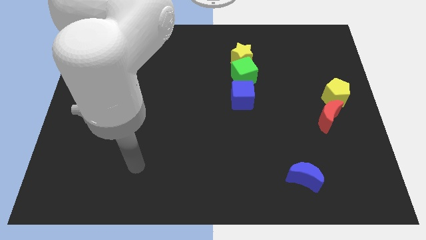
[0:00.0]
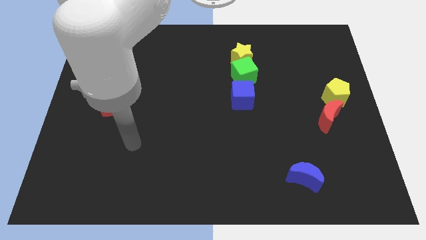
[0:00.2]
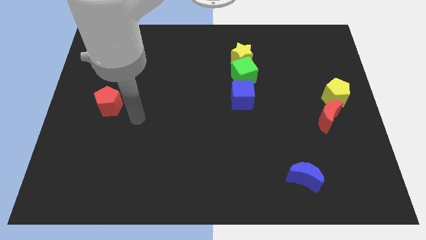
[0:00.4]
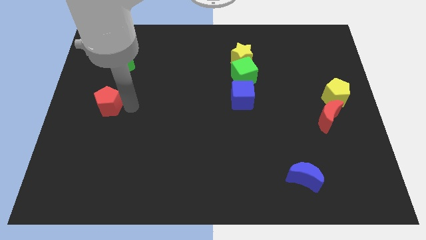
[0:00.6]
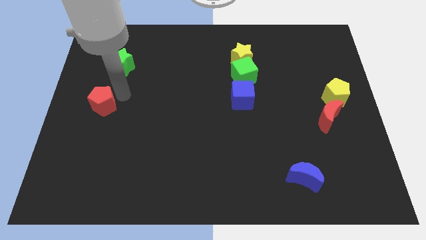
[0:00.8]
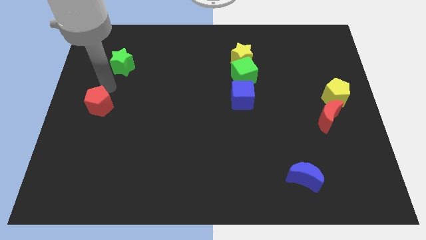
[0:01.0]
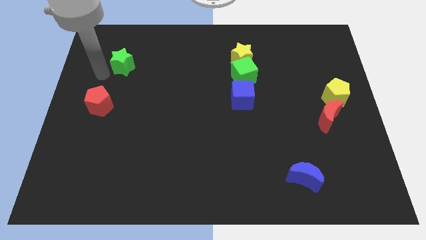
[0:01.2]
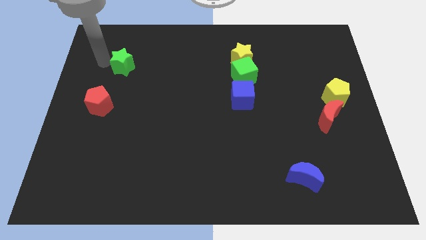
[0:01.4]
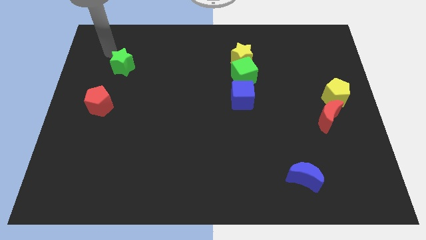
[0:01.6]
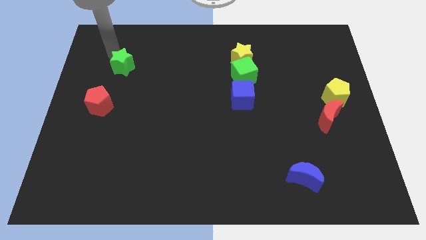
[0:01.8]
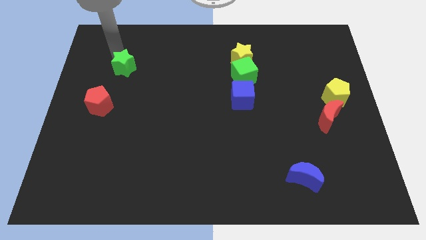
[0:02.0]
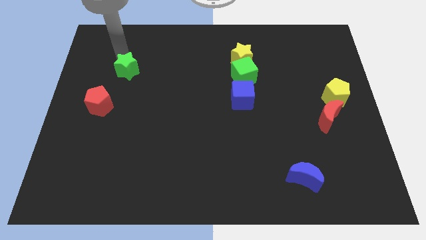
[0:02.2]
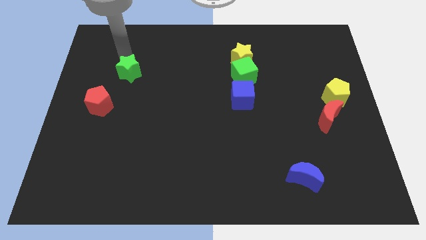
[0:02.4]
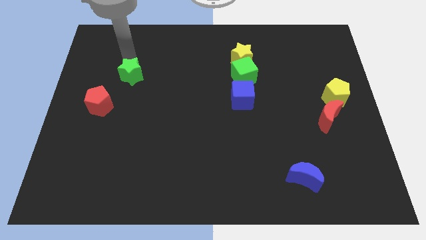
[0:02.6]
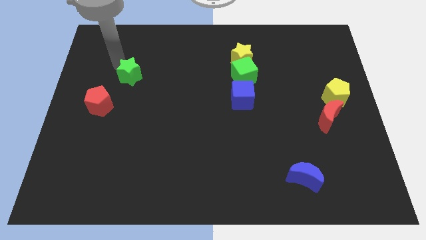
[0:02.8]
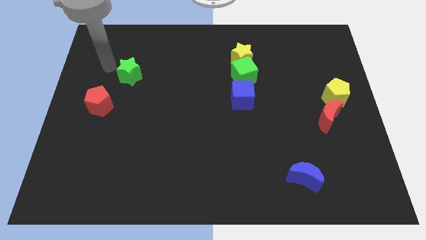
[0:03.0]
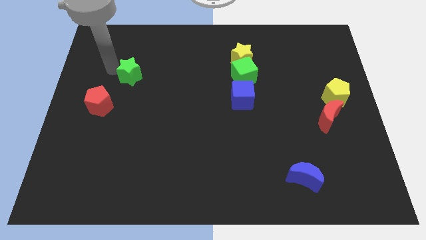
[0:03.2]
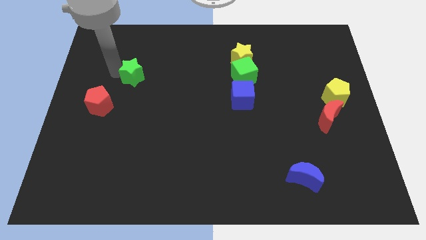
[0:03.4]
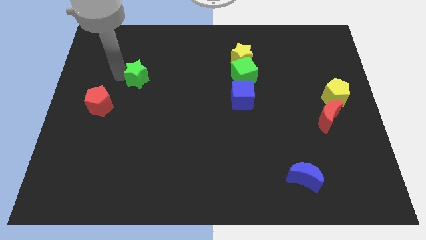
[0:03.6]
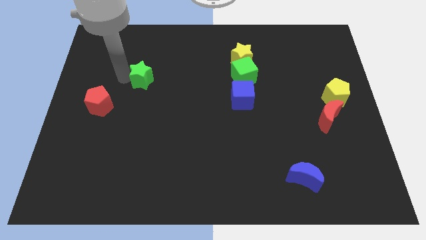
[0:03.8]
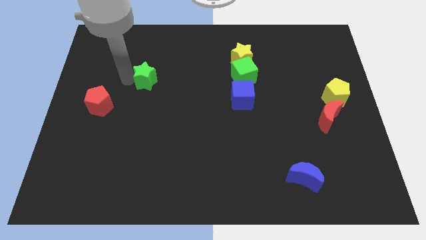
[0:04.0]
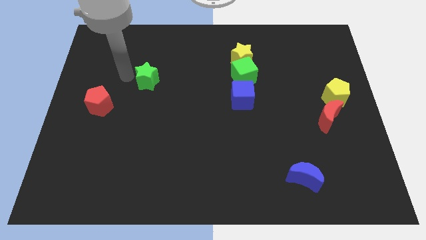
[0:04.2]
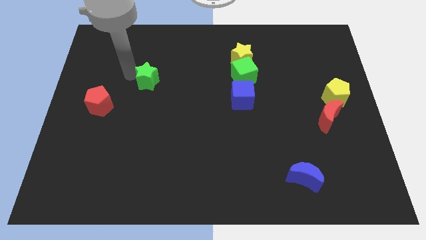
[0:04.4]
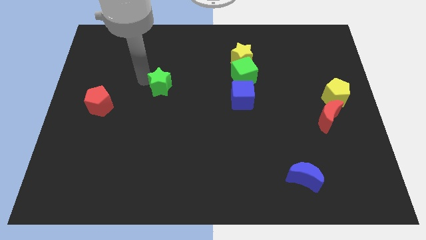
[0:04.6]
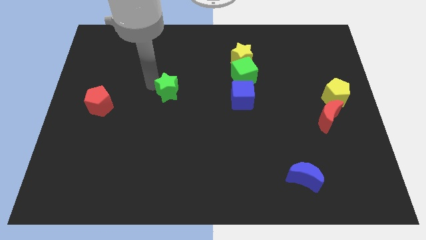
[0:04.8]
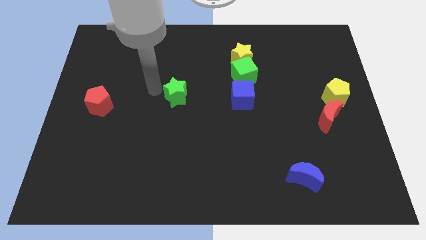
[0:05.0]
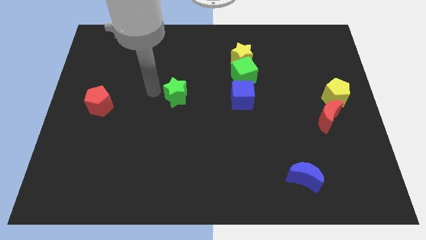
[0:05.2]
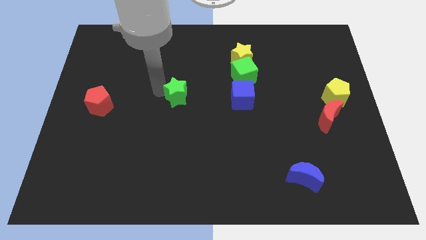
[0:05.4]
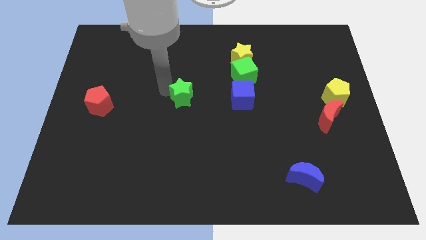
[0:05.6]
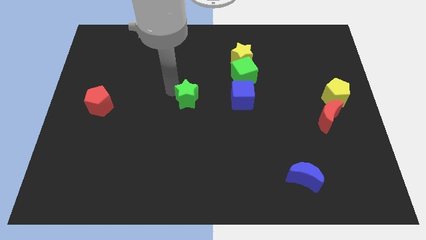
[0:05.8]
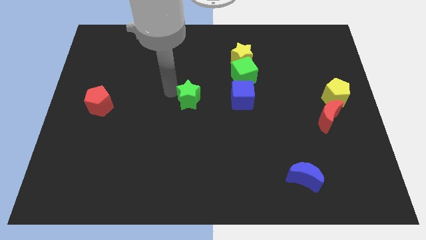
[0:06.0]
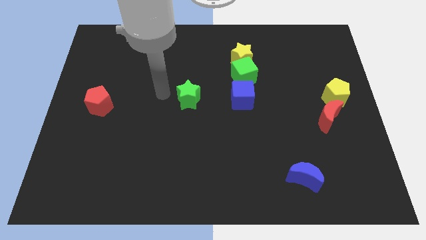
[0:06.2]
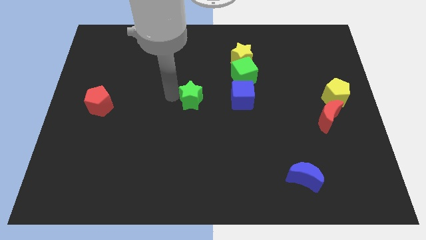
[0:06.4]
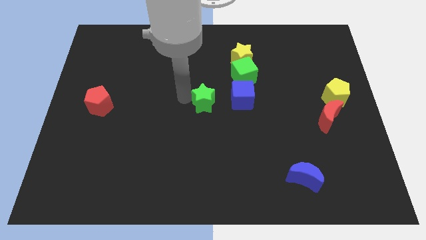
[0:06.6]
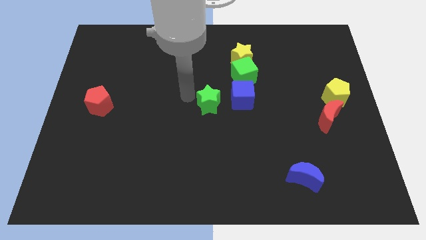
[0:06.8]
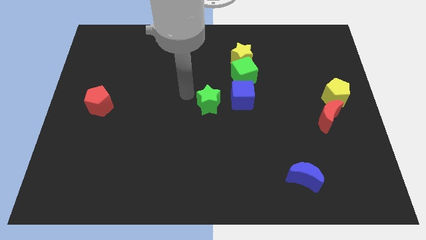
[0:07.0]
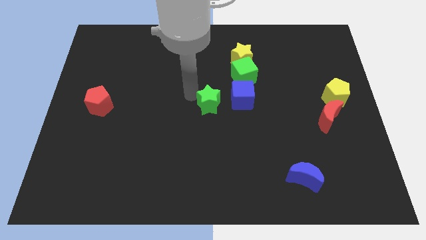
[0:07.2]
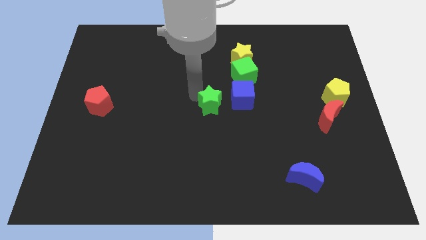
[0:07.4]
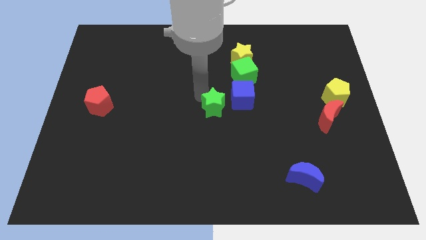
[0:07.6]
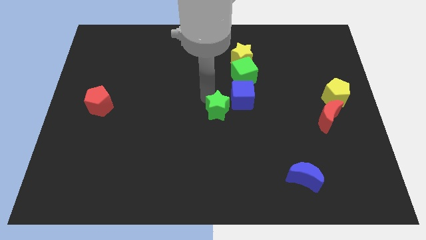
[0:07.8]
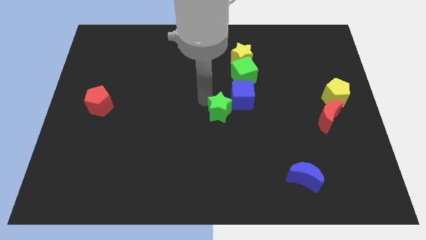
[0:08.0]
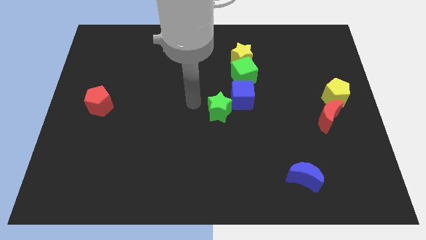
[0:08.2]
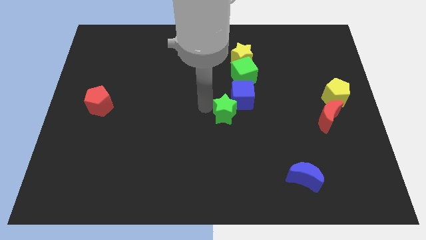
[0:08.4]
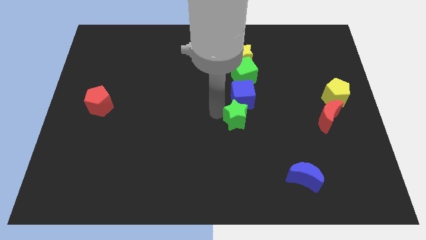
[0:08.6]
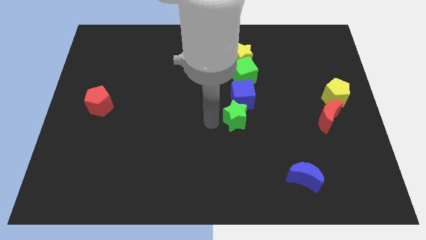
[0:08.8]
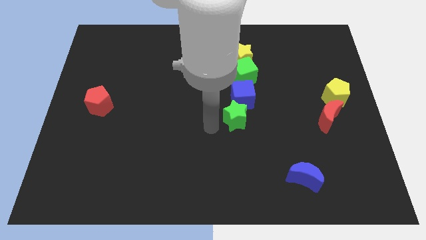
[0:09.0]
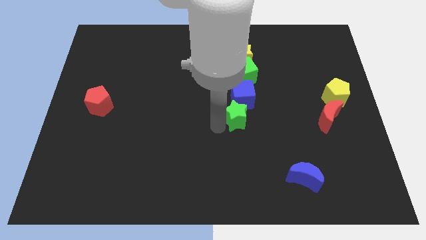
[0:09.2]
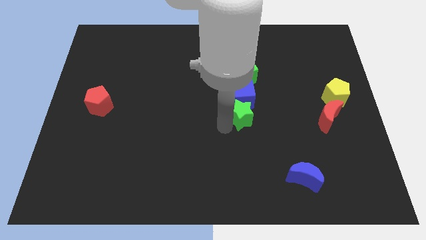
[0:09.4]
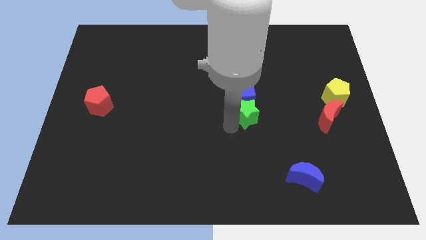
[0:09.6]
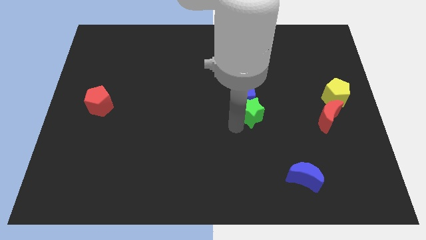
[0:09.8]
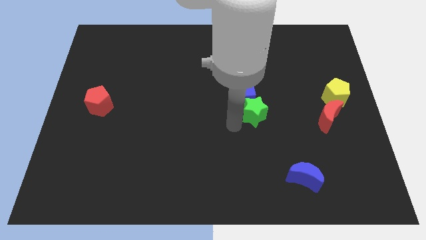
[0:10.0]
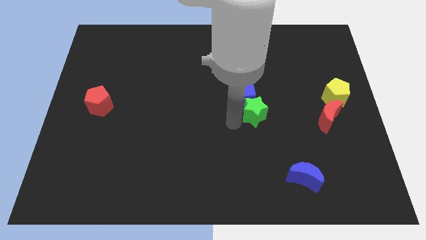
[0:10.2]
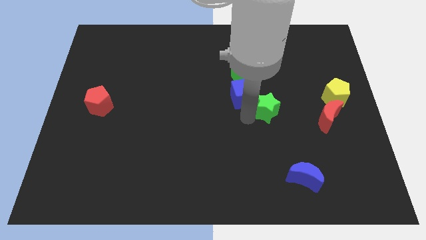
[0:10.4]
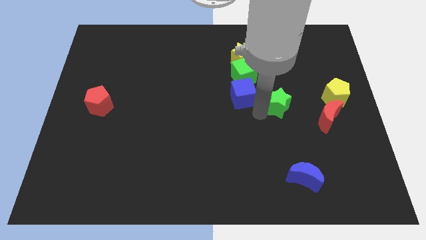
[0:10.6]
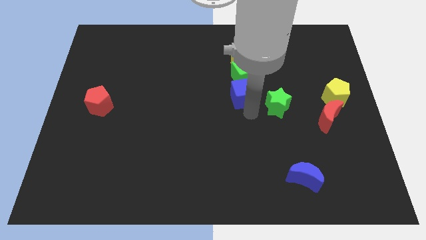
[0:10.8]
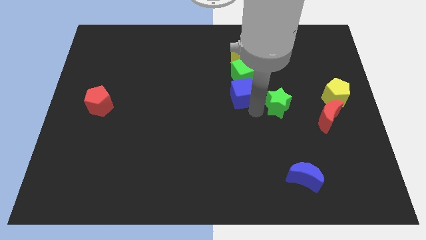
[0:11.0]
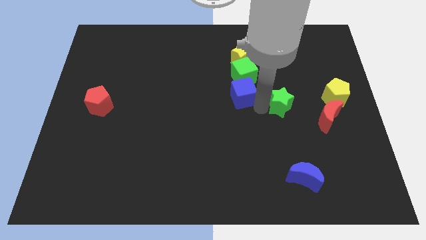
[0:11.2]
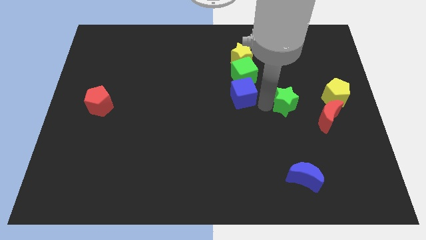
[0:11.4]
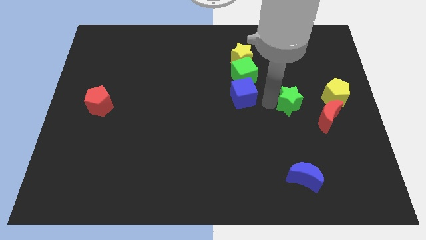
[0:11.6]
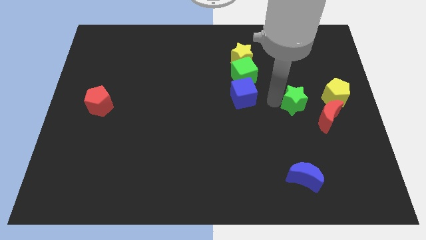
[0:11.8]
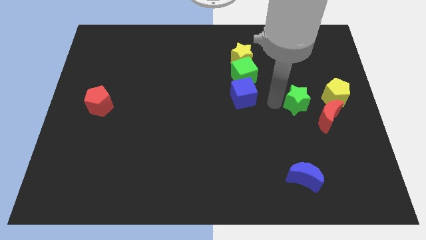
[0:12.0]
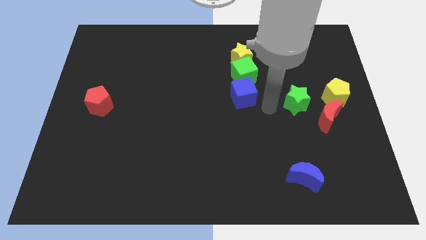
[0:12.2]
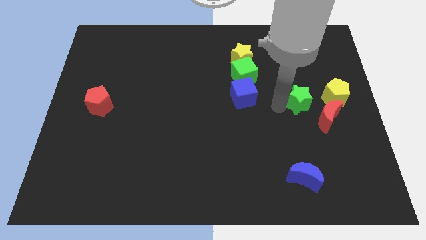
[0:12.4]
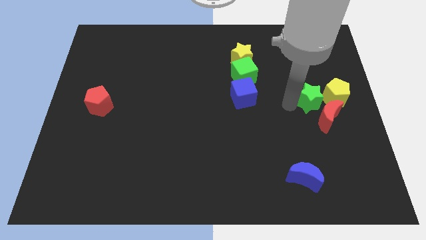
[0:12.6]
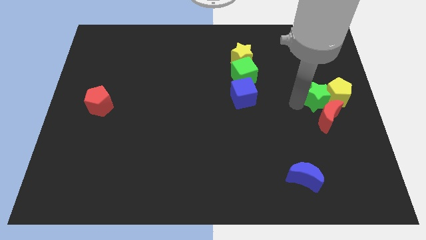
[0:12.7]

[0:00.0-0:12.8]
move the green star next to the yellow pentagon

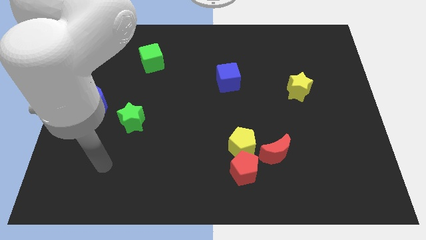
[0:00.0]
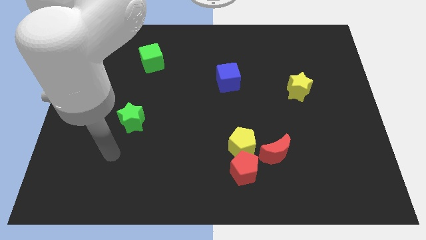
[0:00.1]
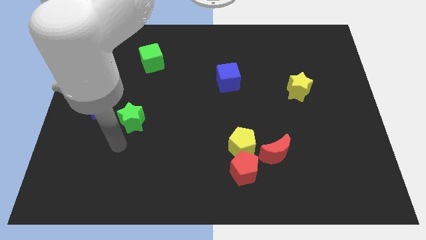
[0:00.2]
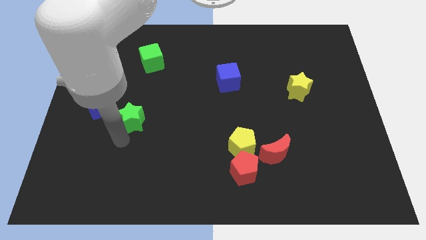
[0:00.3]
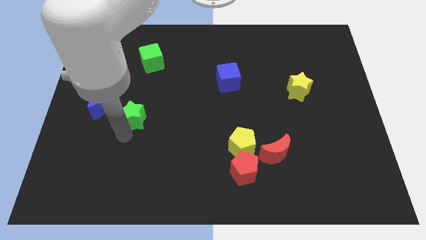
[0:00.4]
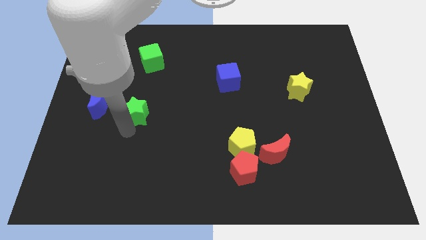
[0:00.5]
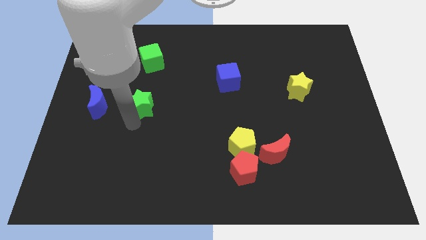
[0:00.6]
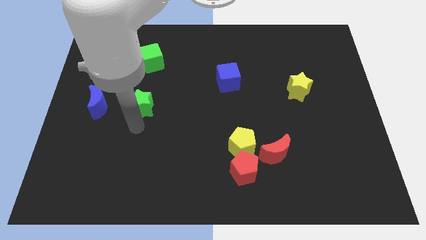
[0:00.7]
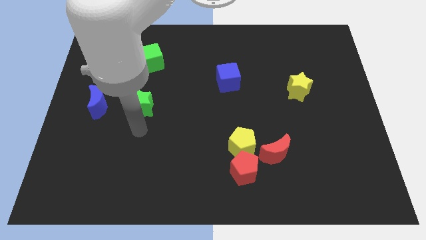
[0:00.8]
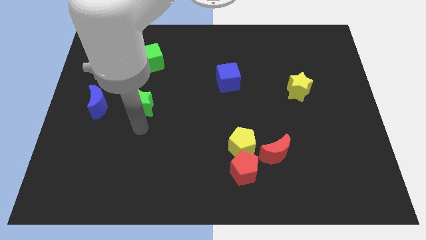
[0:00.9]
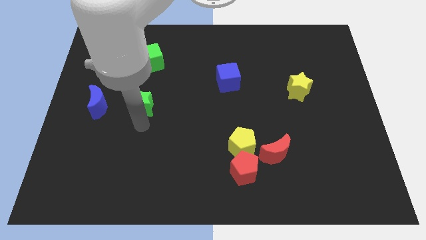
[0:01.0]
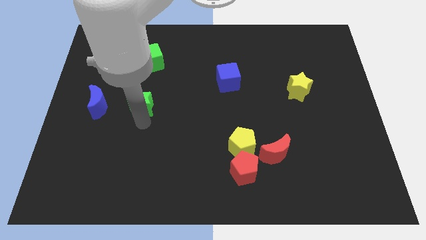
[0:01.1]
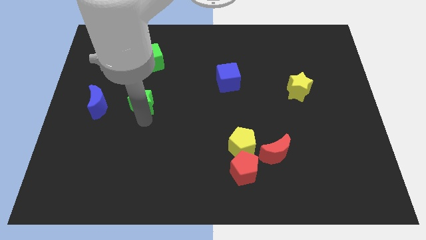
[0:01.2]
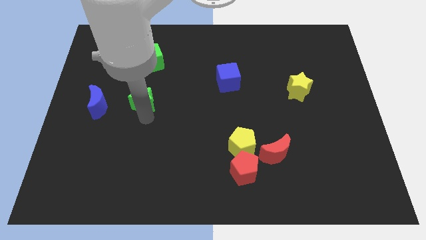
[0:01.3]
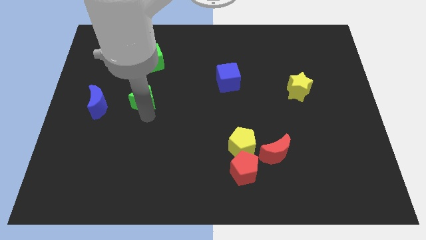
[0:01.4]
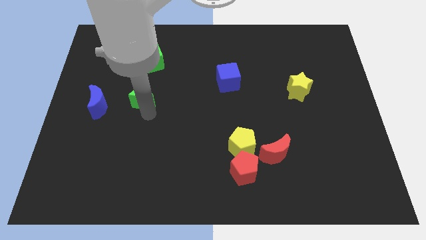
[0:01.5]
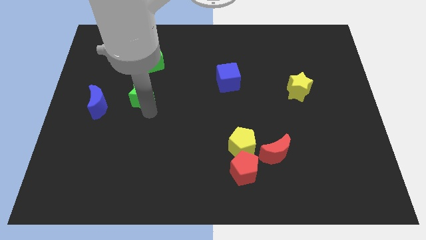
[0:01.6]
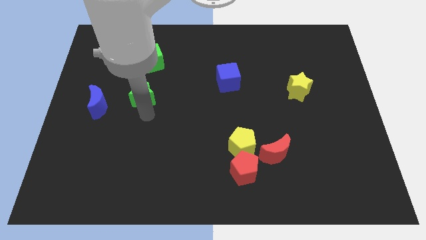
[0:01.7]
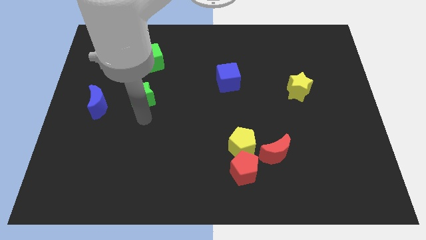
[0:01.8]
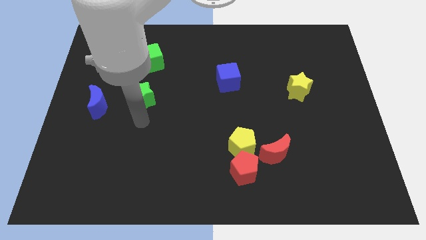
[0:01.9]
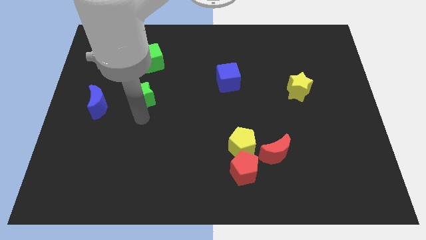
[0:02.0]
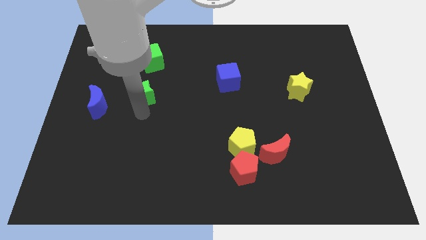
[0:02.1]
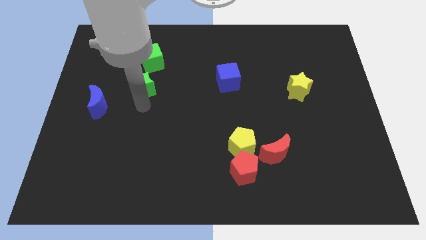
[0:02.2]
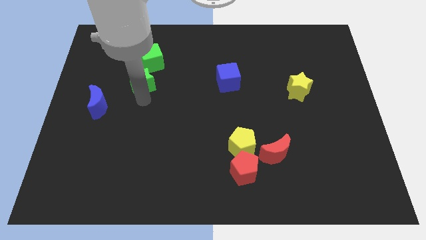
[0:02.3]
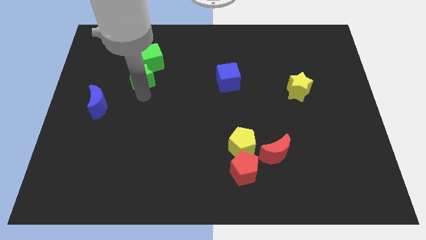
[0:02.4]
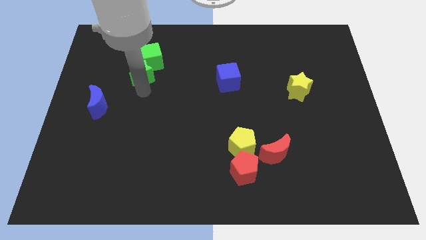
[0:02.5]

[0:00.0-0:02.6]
move the green star towards the green cube
